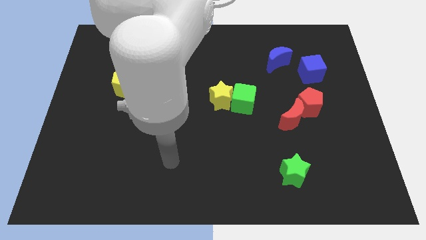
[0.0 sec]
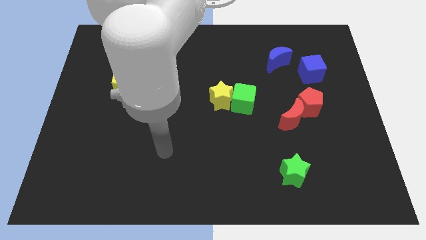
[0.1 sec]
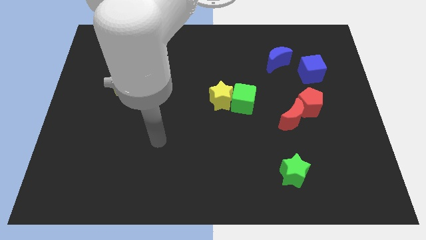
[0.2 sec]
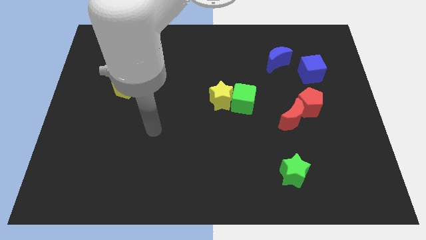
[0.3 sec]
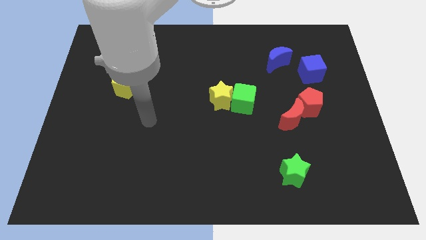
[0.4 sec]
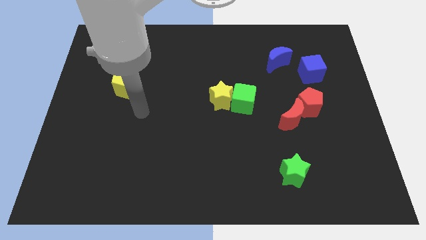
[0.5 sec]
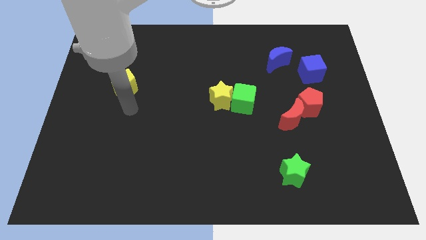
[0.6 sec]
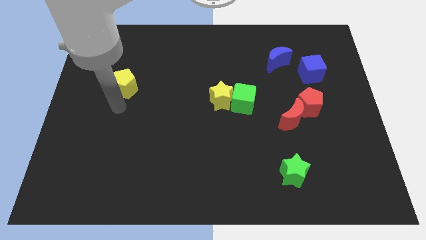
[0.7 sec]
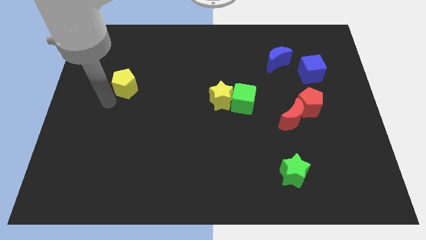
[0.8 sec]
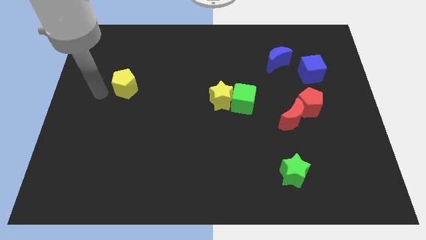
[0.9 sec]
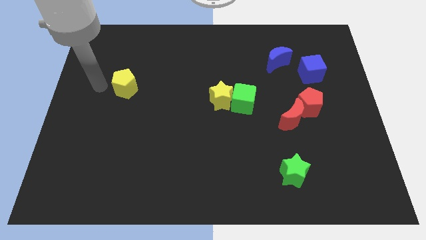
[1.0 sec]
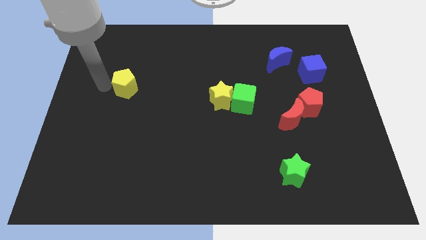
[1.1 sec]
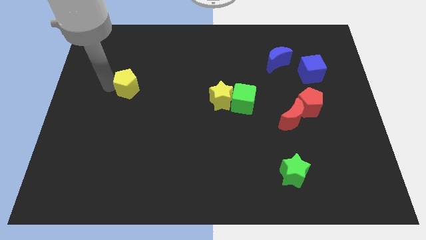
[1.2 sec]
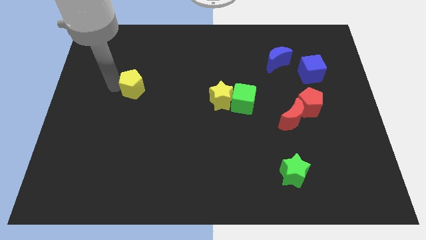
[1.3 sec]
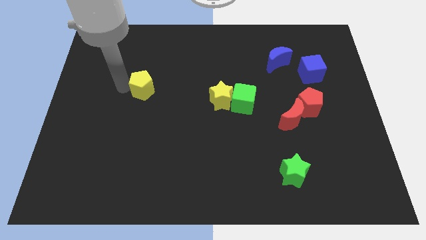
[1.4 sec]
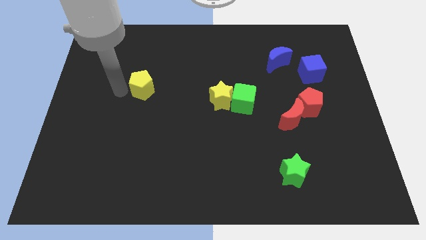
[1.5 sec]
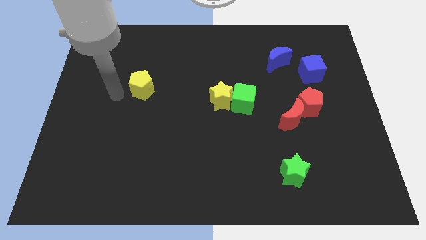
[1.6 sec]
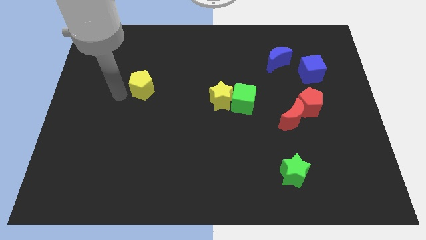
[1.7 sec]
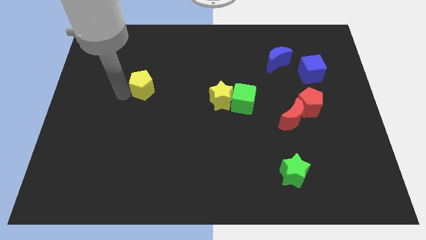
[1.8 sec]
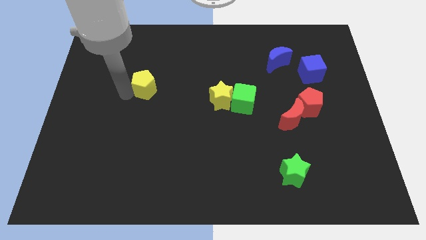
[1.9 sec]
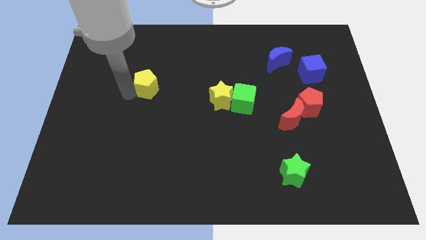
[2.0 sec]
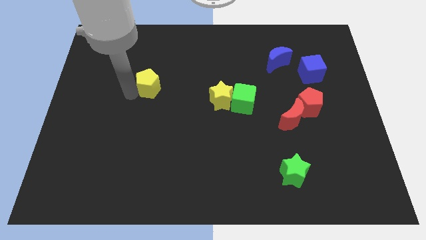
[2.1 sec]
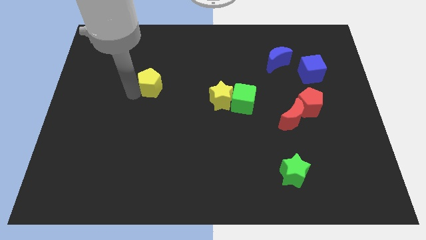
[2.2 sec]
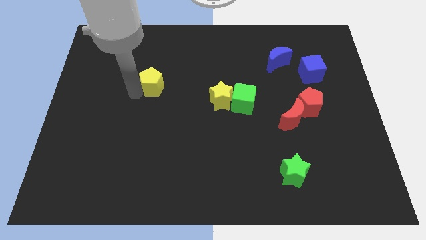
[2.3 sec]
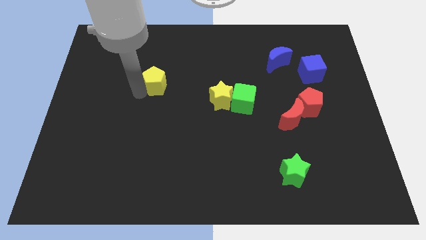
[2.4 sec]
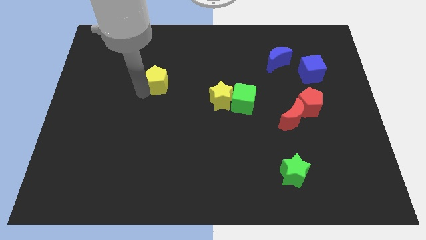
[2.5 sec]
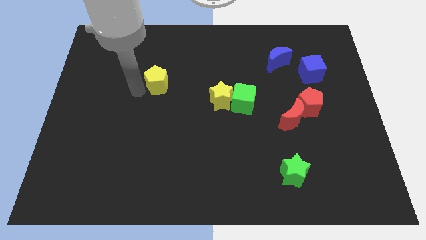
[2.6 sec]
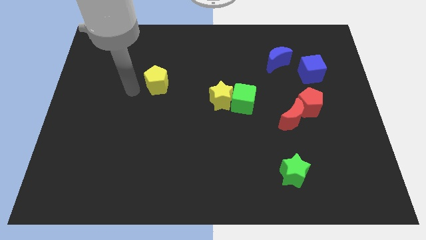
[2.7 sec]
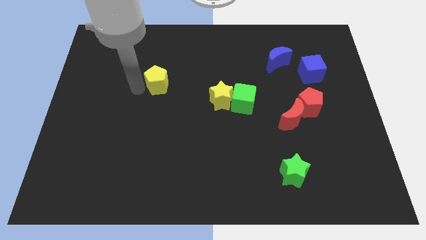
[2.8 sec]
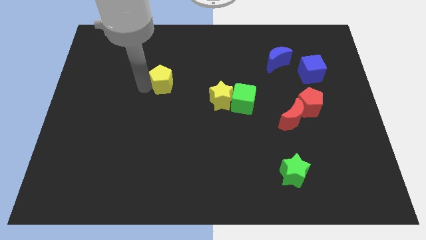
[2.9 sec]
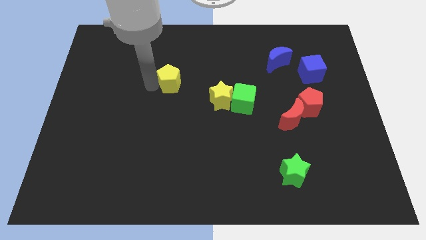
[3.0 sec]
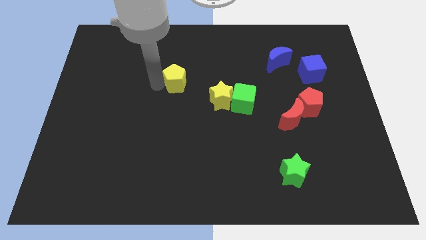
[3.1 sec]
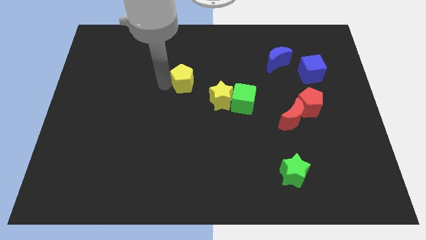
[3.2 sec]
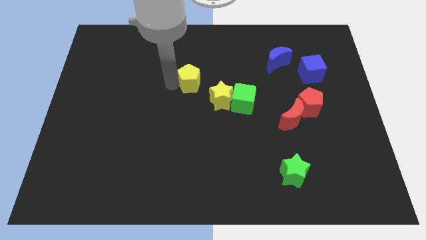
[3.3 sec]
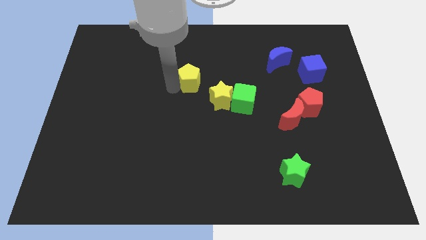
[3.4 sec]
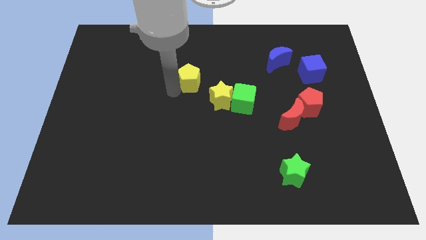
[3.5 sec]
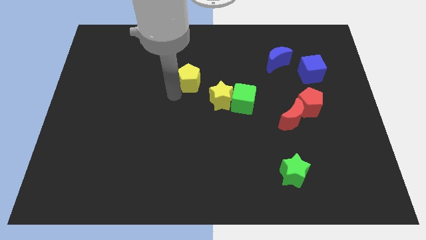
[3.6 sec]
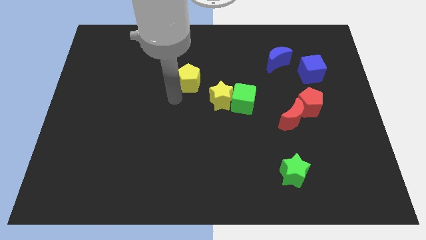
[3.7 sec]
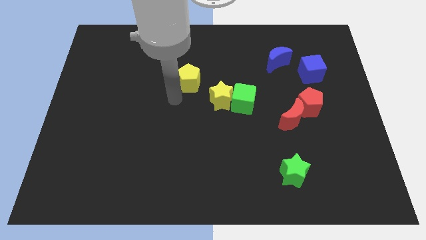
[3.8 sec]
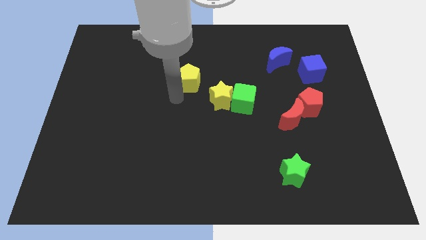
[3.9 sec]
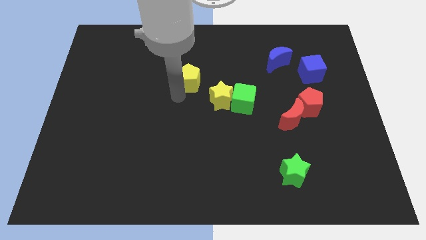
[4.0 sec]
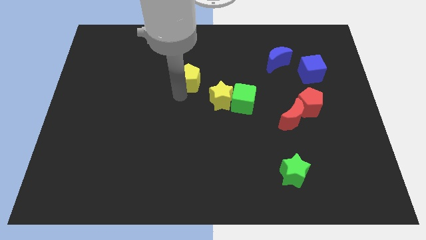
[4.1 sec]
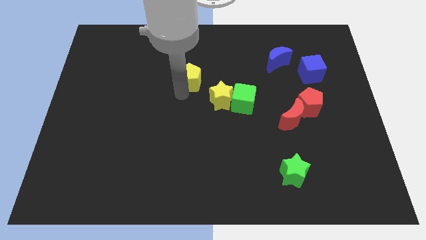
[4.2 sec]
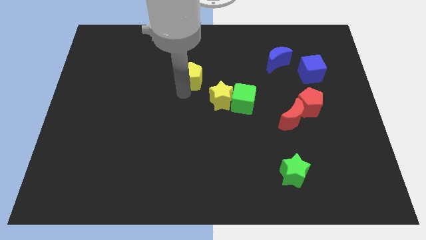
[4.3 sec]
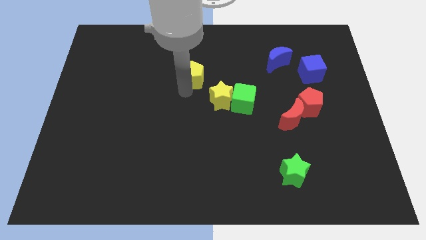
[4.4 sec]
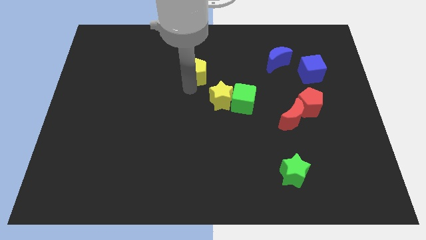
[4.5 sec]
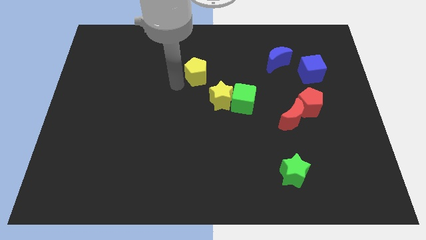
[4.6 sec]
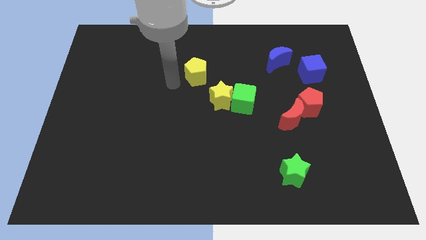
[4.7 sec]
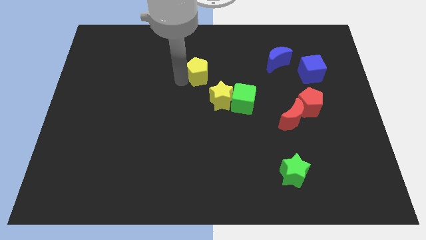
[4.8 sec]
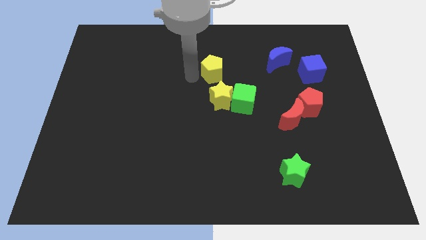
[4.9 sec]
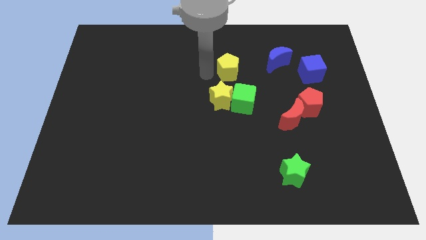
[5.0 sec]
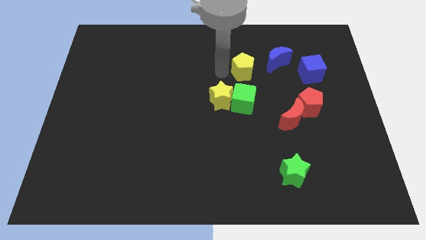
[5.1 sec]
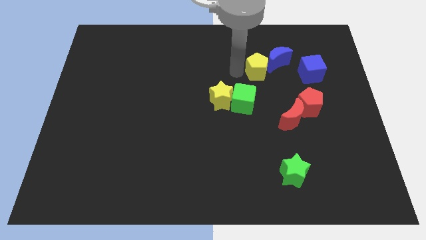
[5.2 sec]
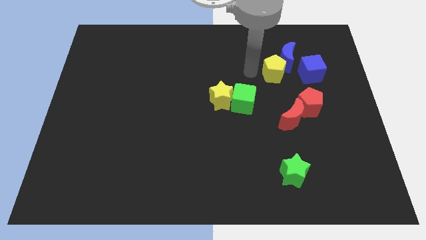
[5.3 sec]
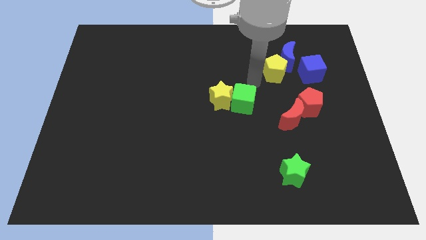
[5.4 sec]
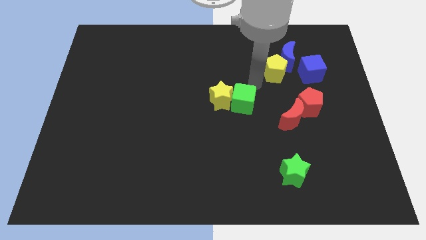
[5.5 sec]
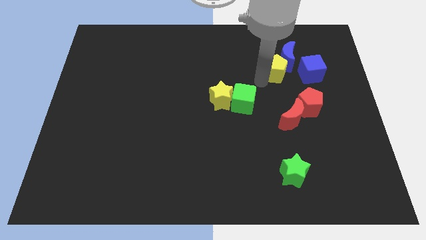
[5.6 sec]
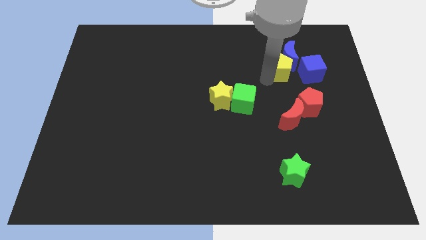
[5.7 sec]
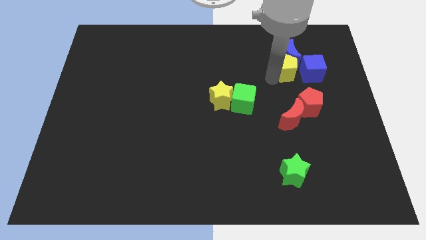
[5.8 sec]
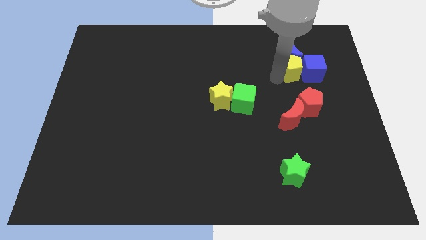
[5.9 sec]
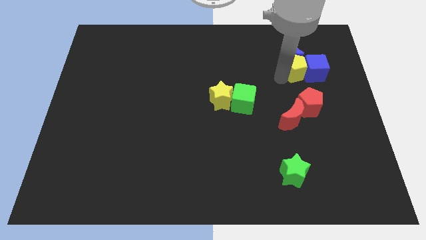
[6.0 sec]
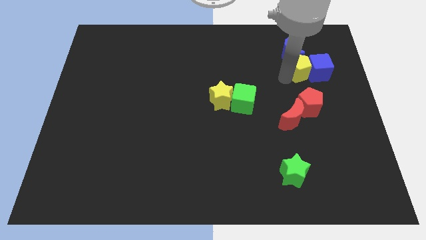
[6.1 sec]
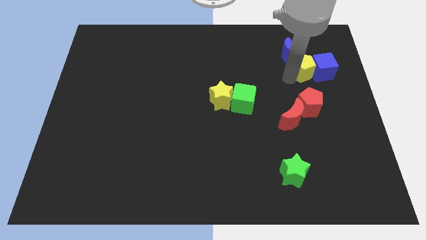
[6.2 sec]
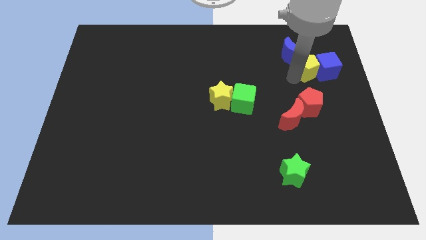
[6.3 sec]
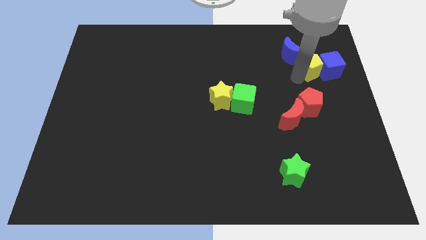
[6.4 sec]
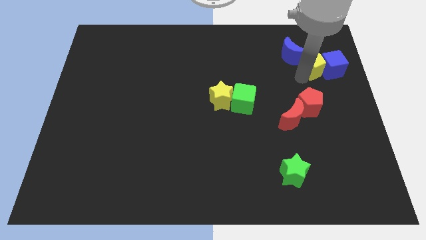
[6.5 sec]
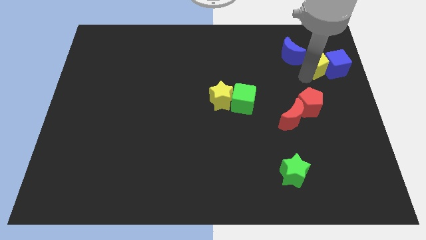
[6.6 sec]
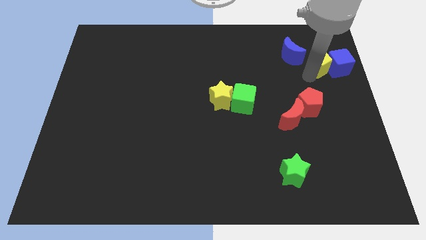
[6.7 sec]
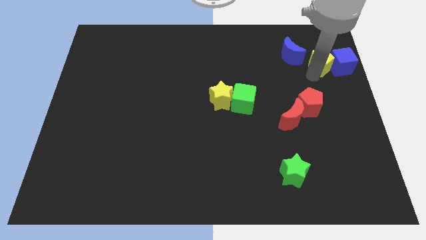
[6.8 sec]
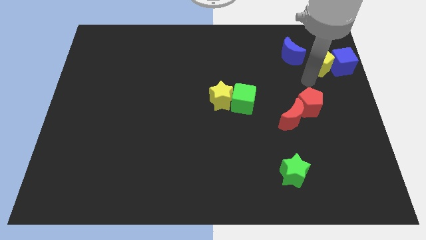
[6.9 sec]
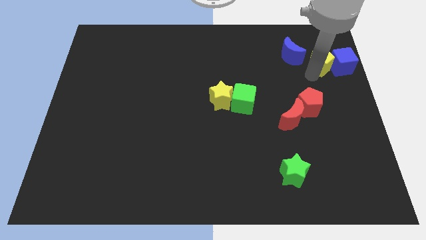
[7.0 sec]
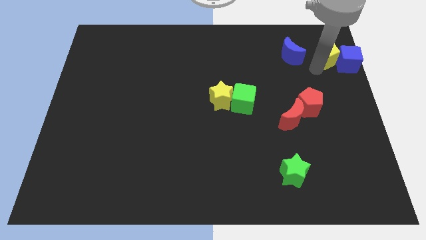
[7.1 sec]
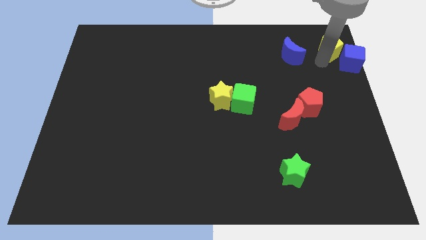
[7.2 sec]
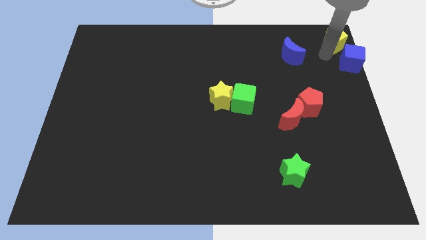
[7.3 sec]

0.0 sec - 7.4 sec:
put the yellow pentagon to the top right of the board
